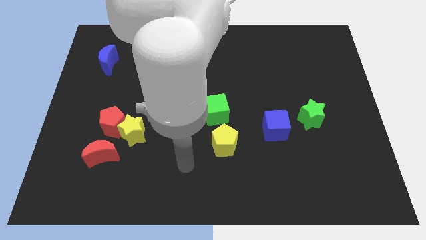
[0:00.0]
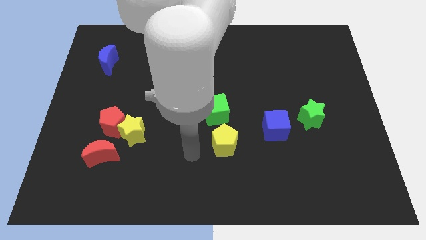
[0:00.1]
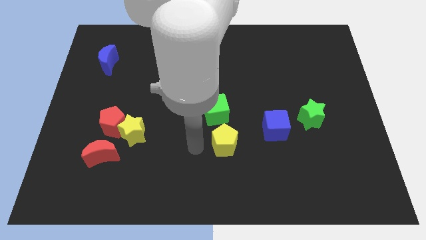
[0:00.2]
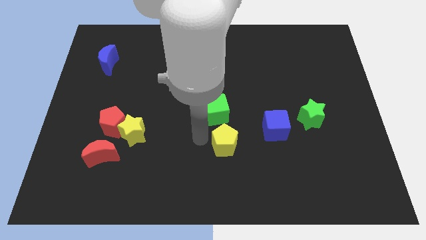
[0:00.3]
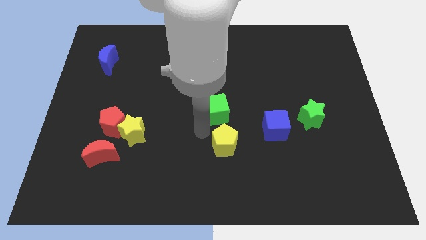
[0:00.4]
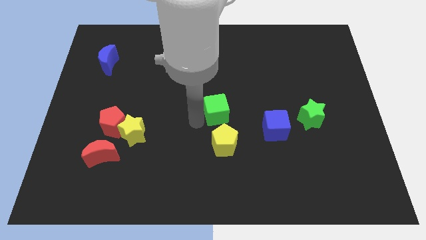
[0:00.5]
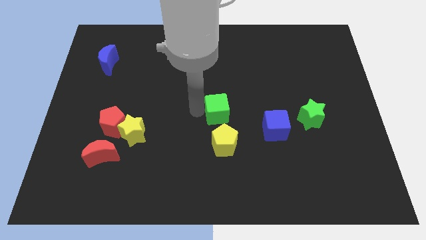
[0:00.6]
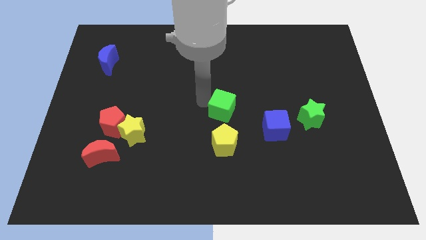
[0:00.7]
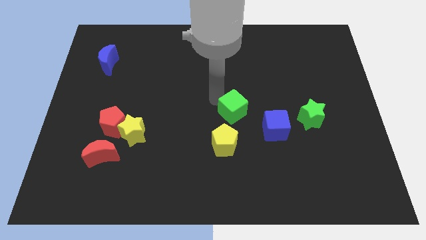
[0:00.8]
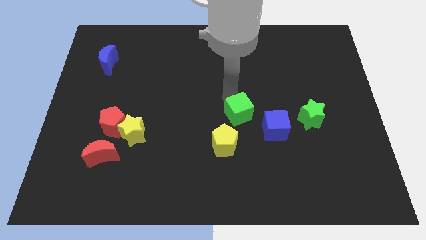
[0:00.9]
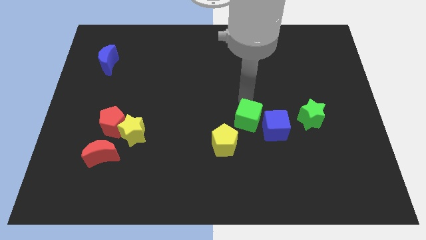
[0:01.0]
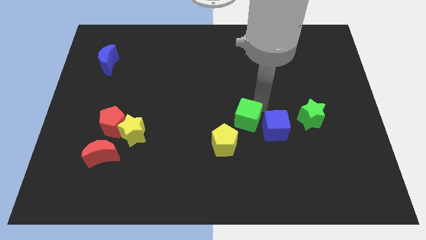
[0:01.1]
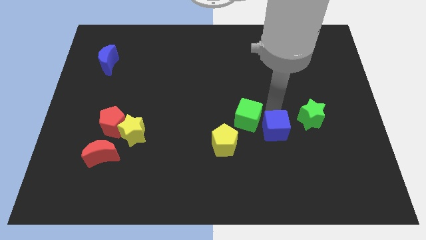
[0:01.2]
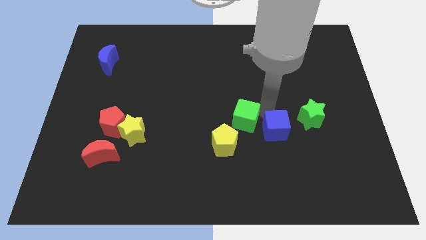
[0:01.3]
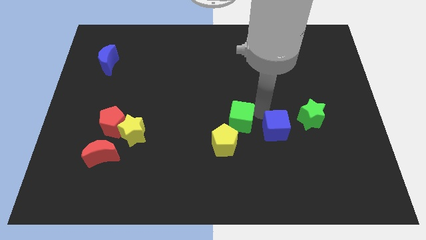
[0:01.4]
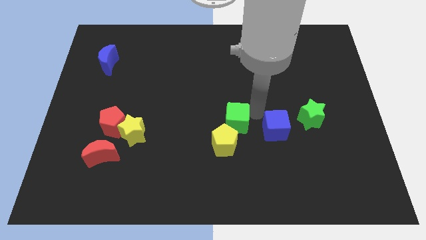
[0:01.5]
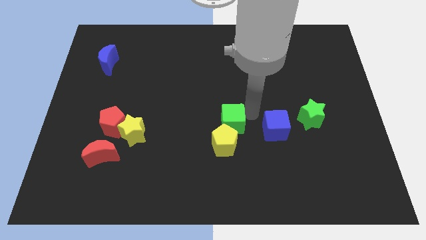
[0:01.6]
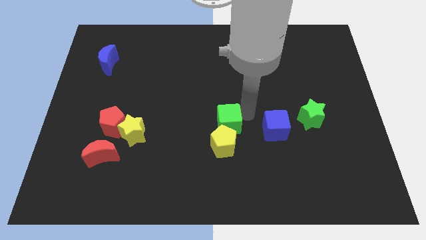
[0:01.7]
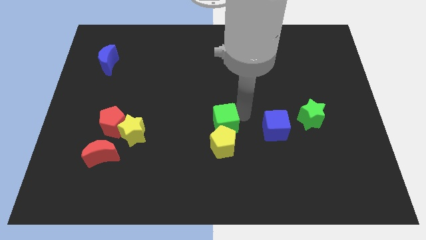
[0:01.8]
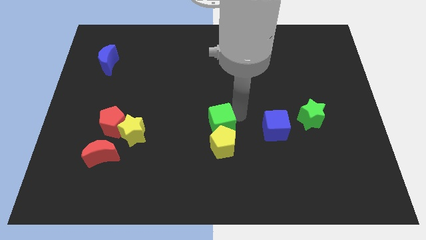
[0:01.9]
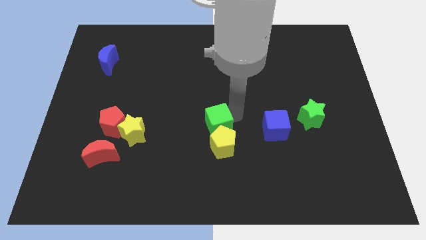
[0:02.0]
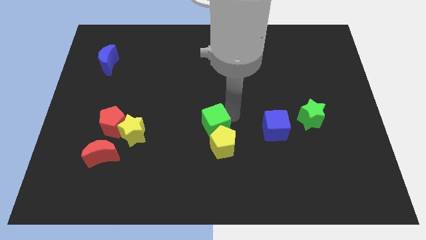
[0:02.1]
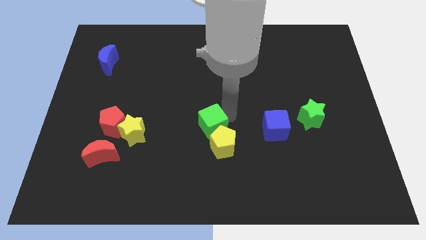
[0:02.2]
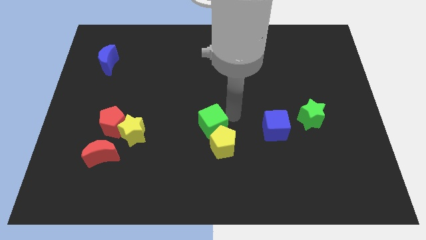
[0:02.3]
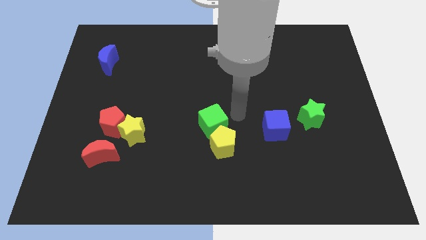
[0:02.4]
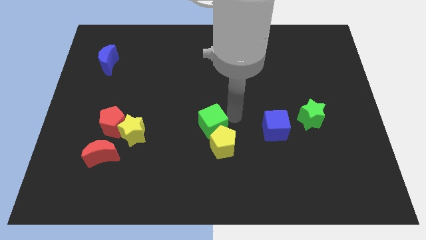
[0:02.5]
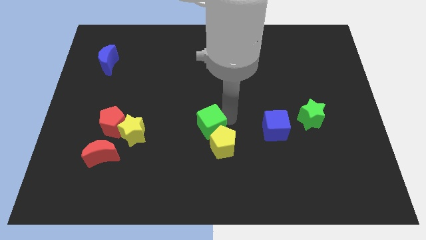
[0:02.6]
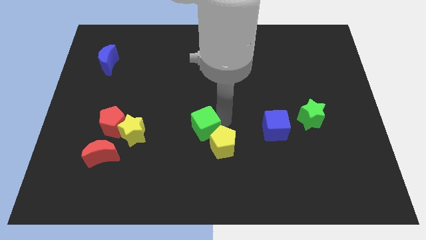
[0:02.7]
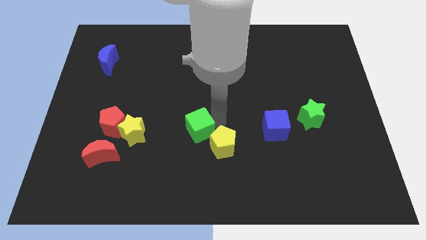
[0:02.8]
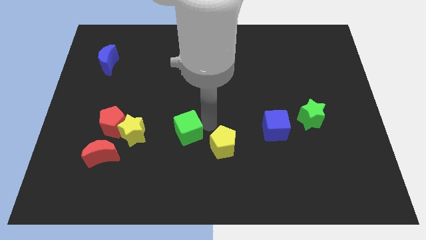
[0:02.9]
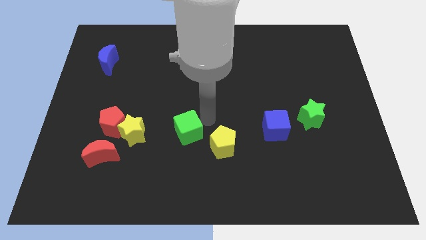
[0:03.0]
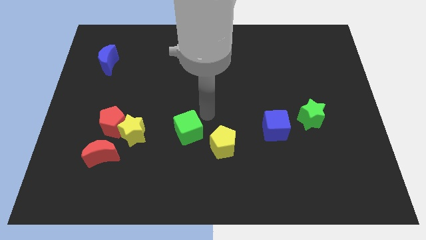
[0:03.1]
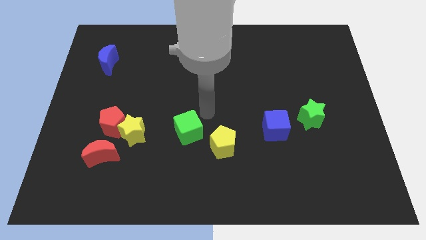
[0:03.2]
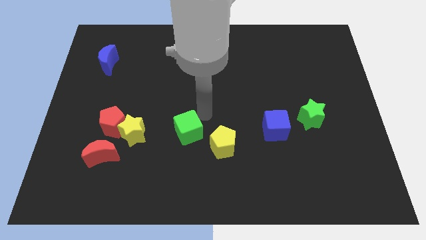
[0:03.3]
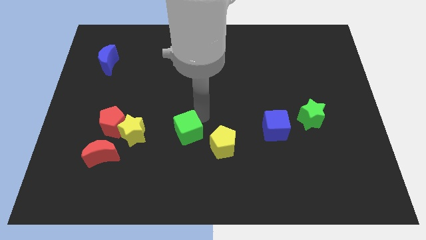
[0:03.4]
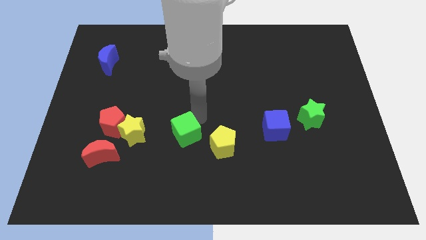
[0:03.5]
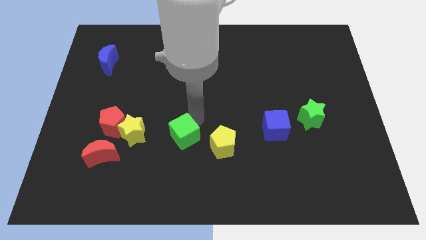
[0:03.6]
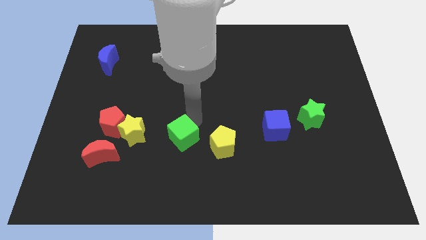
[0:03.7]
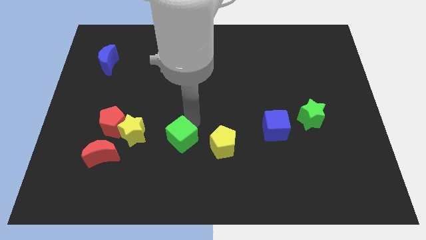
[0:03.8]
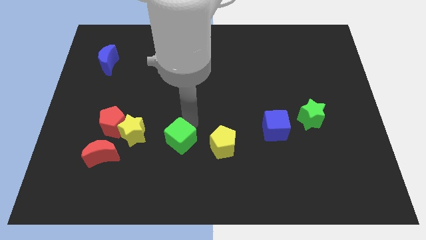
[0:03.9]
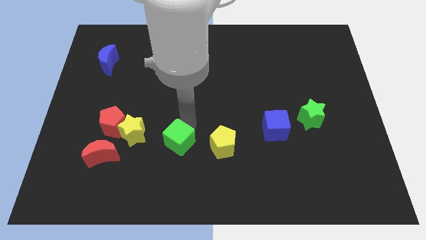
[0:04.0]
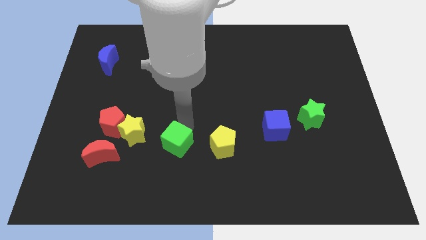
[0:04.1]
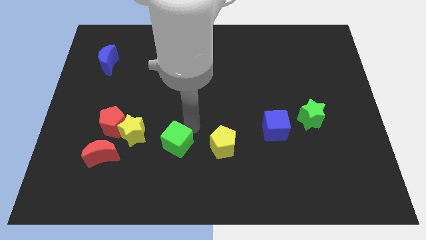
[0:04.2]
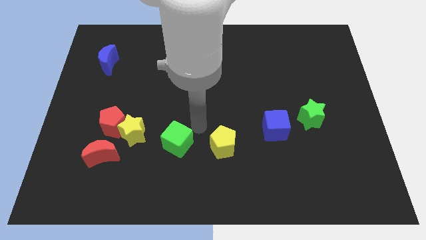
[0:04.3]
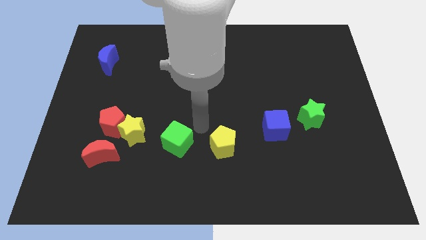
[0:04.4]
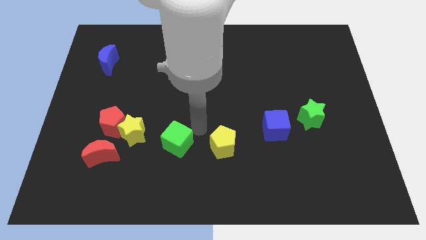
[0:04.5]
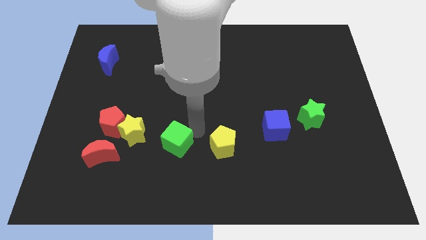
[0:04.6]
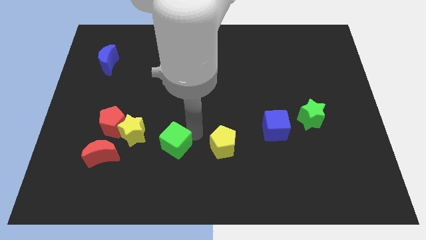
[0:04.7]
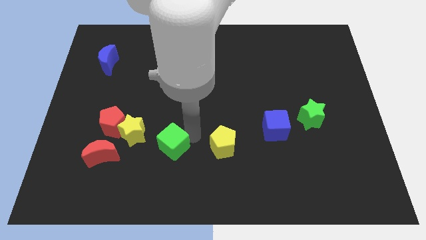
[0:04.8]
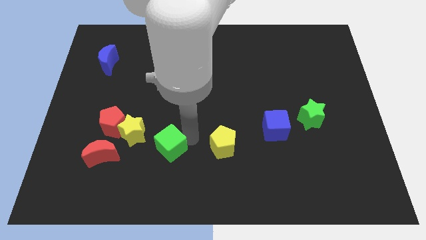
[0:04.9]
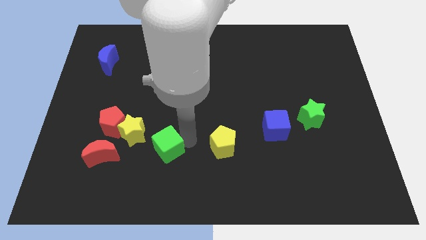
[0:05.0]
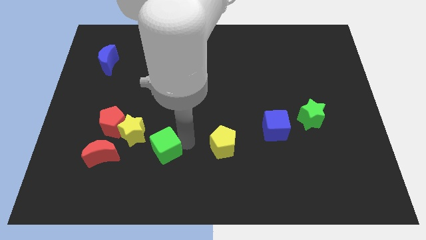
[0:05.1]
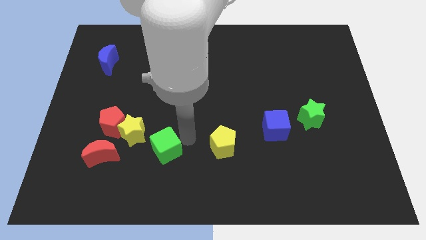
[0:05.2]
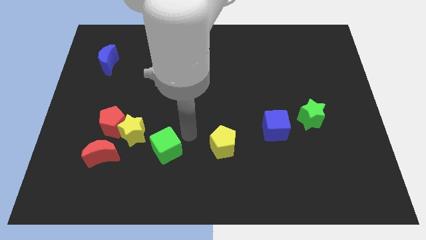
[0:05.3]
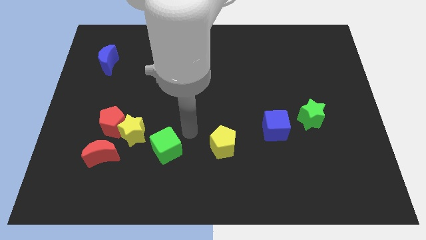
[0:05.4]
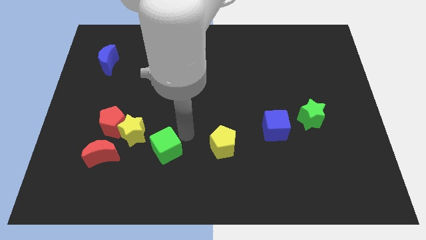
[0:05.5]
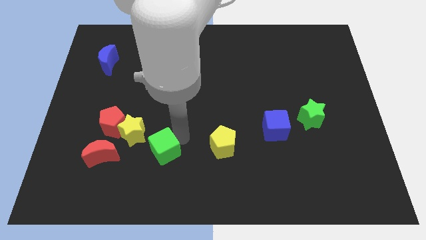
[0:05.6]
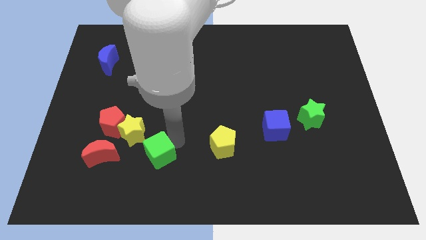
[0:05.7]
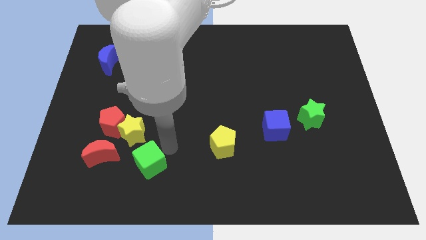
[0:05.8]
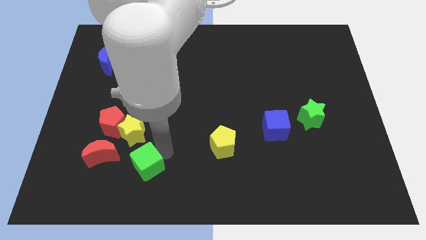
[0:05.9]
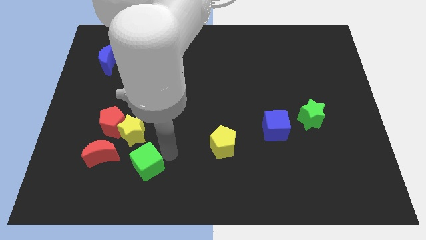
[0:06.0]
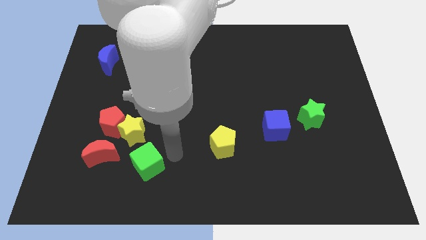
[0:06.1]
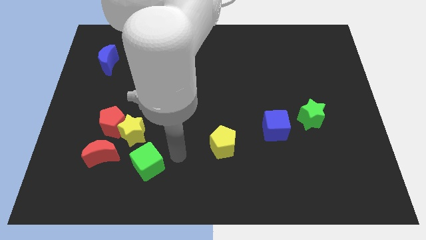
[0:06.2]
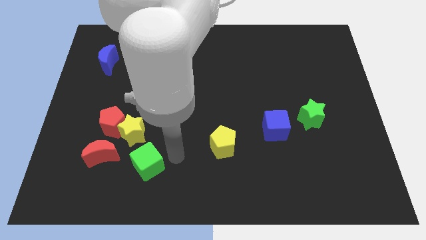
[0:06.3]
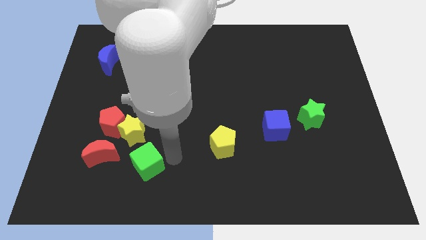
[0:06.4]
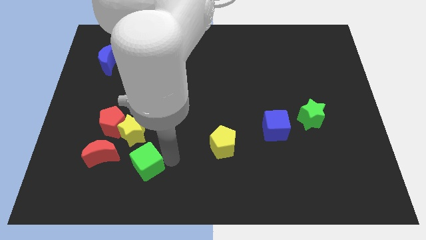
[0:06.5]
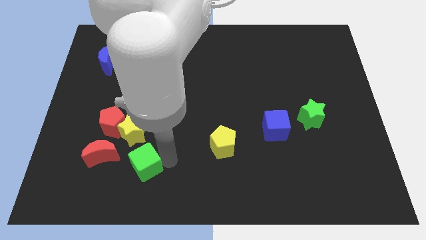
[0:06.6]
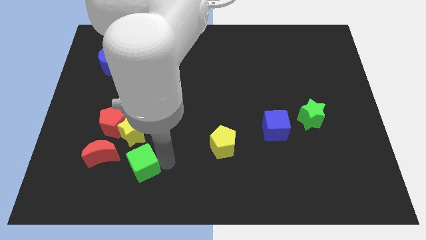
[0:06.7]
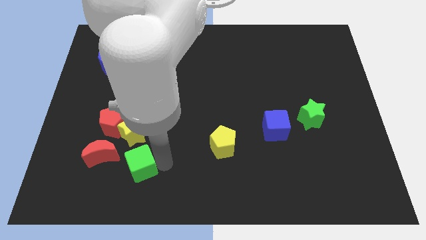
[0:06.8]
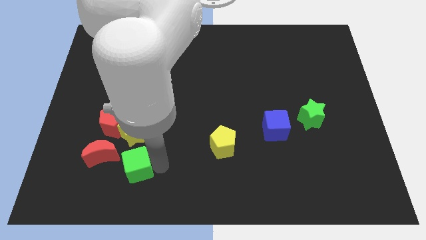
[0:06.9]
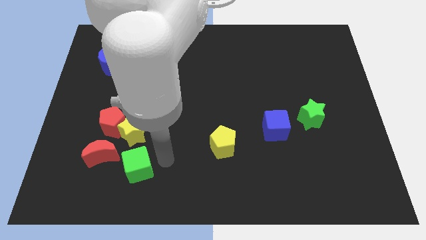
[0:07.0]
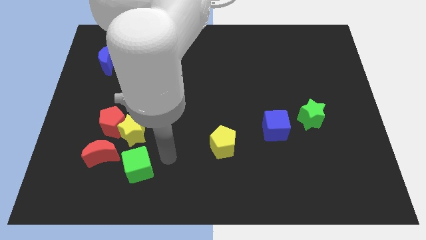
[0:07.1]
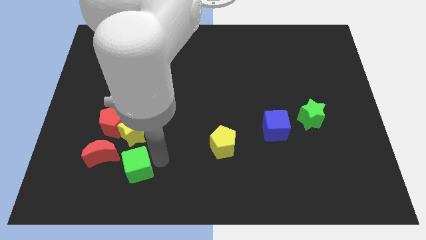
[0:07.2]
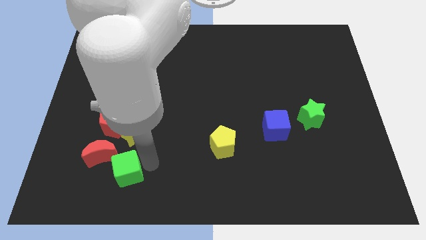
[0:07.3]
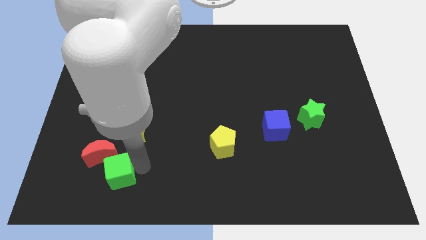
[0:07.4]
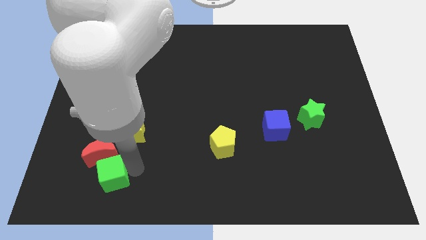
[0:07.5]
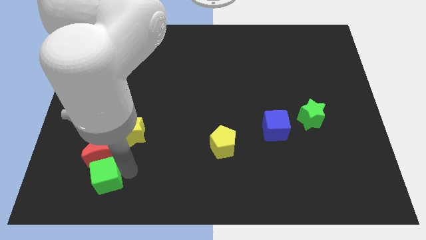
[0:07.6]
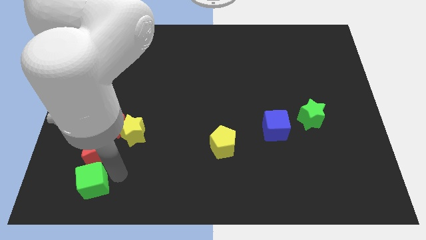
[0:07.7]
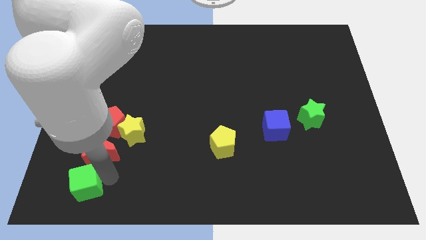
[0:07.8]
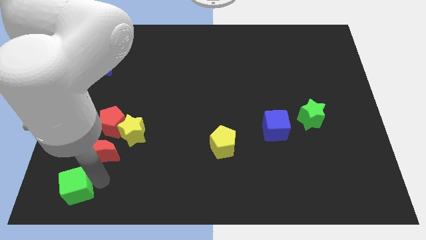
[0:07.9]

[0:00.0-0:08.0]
put the green cube to the lower left corner
